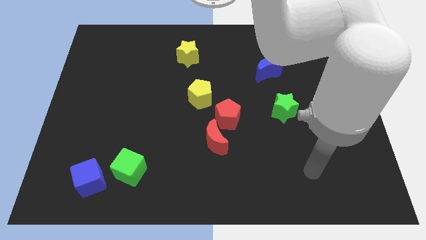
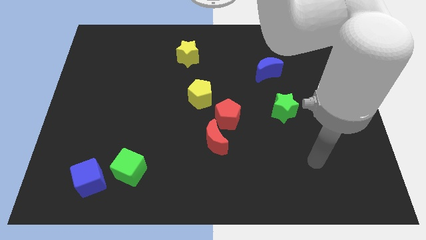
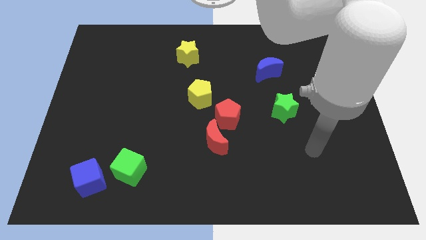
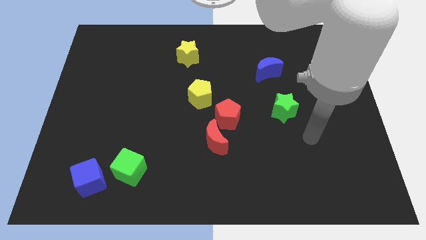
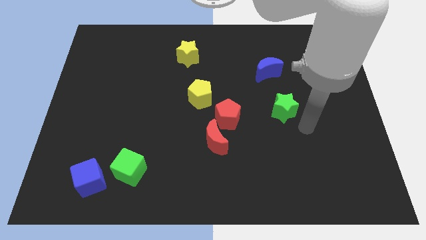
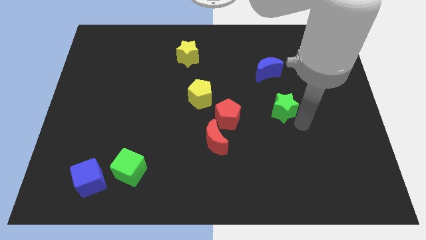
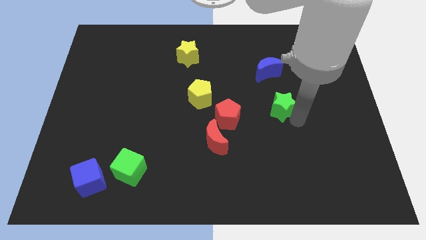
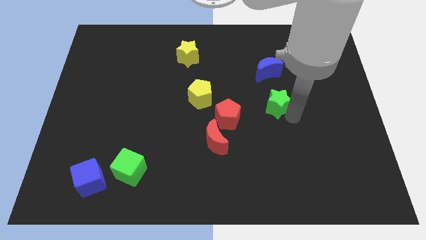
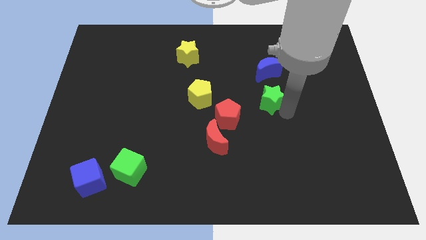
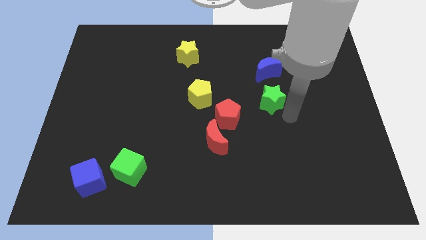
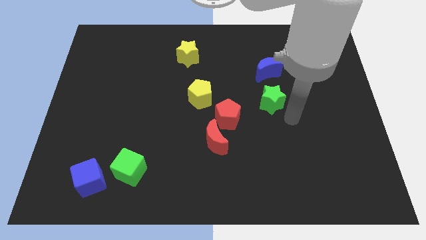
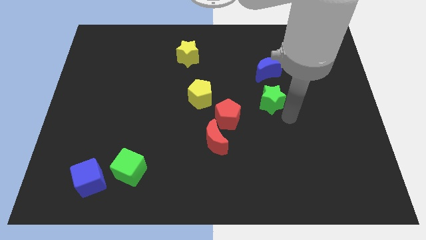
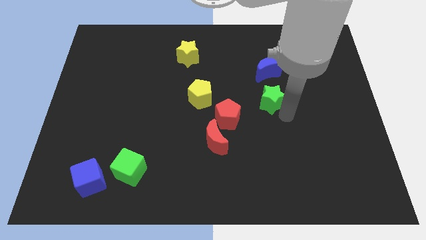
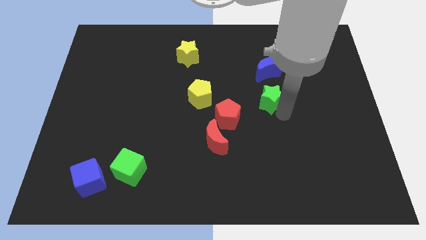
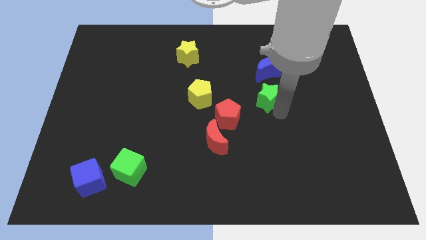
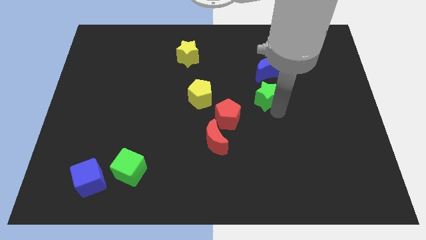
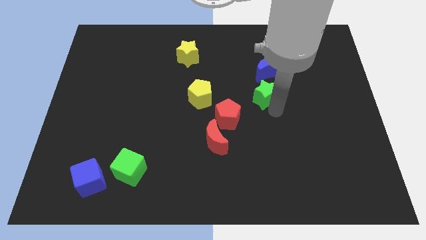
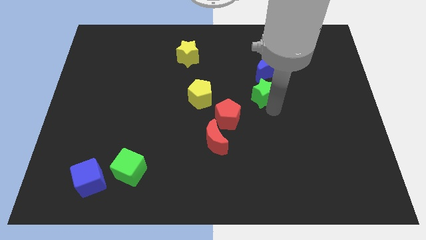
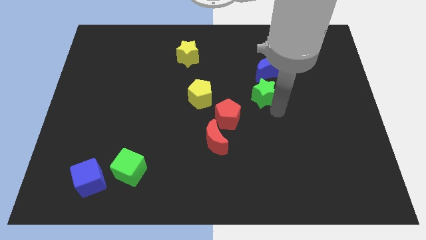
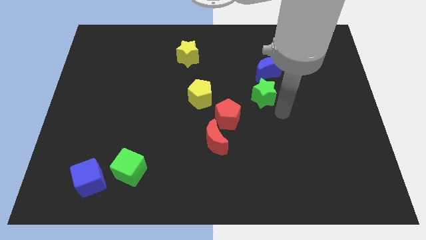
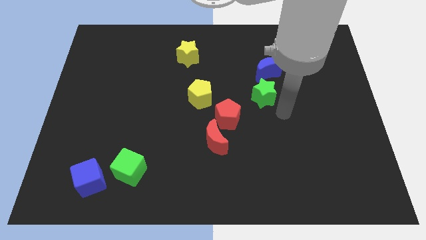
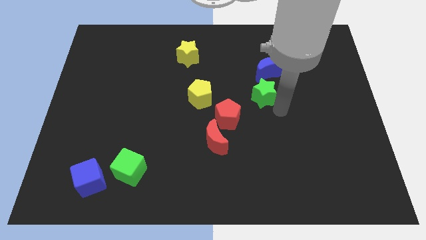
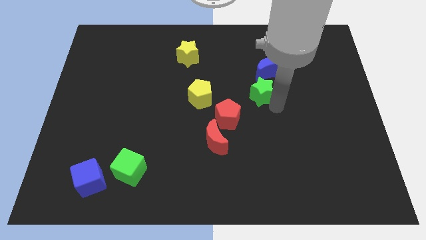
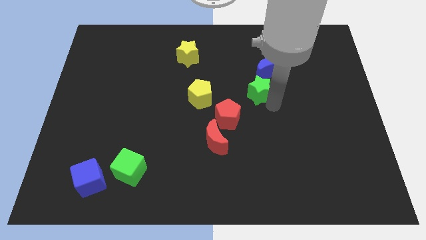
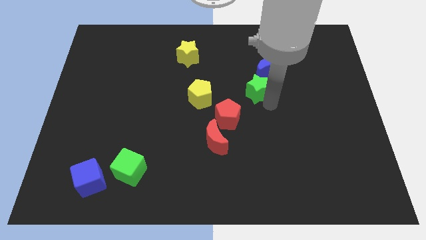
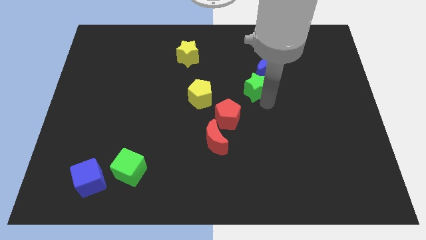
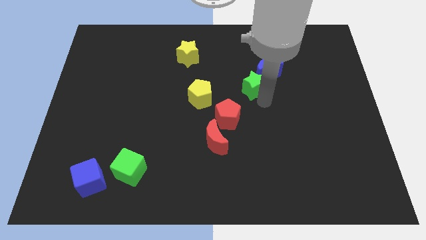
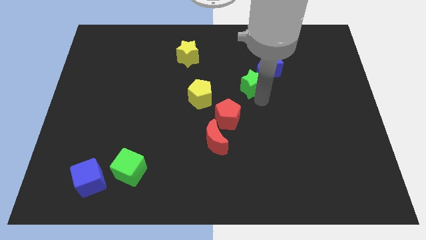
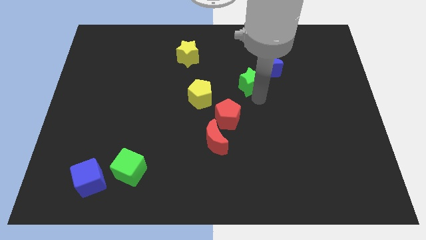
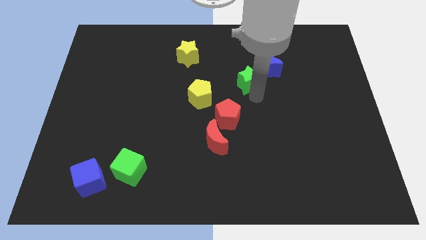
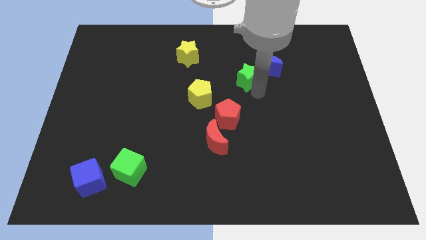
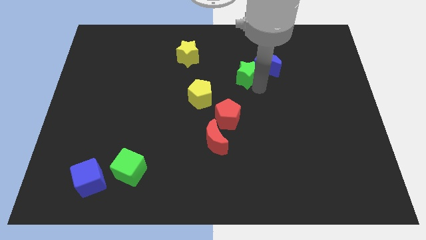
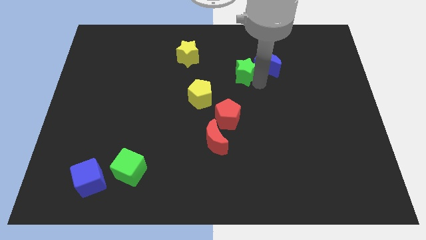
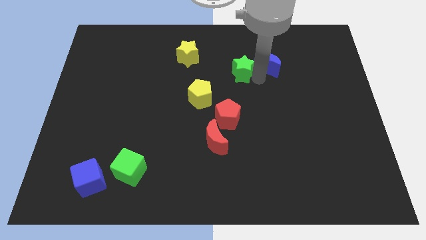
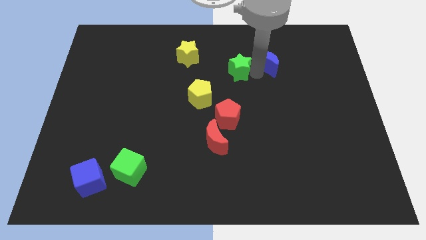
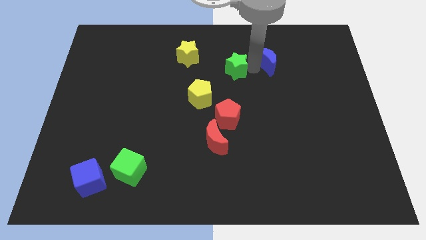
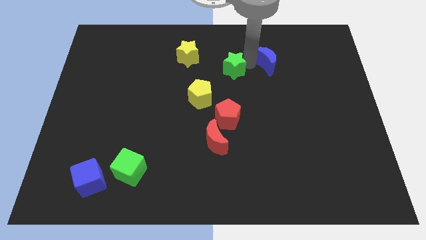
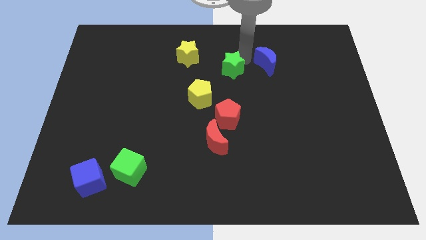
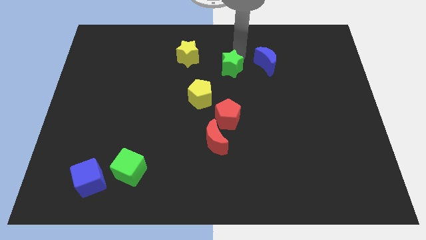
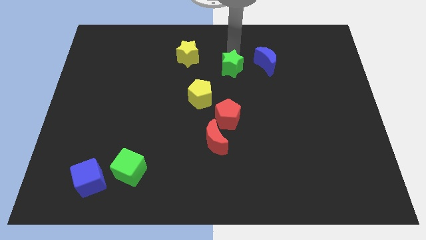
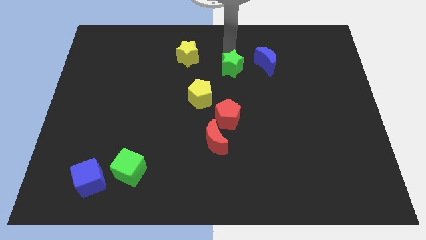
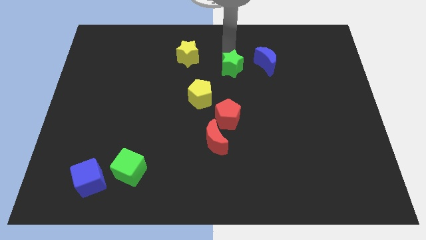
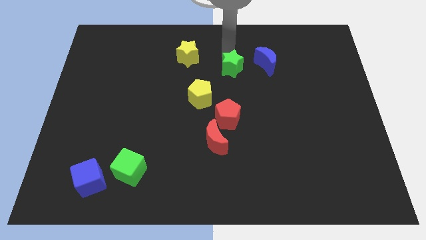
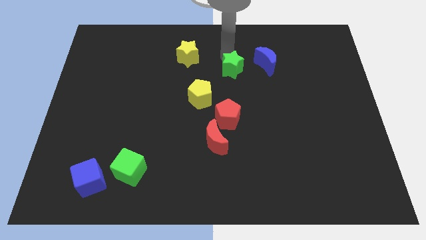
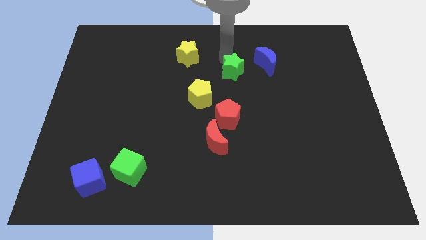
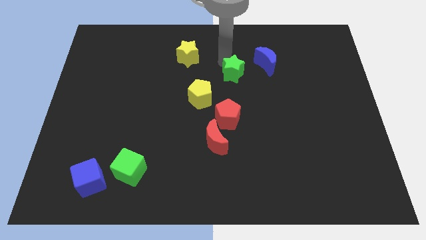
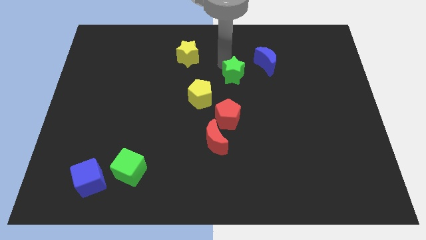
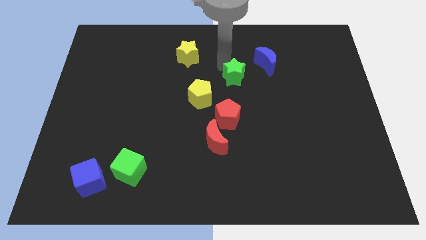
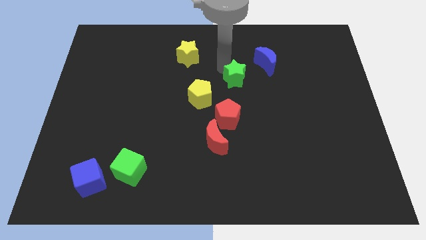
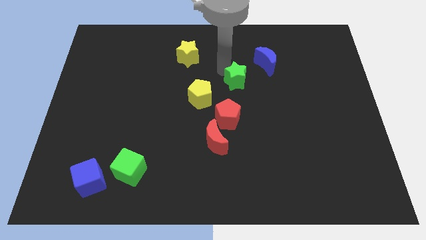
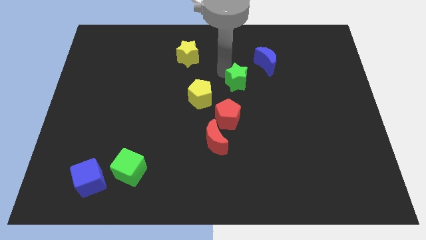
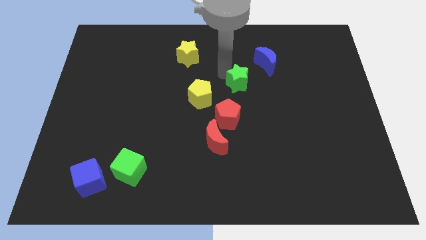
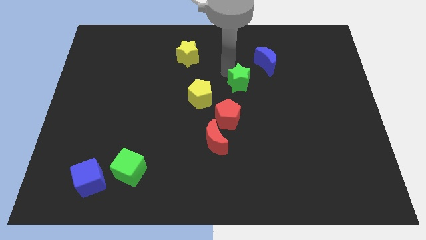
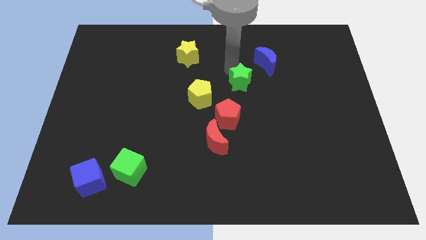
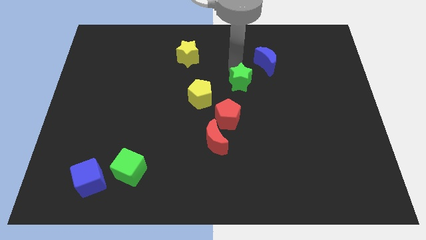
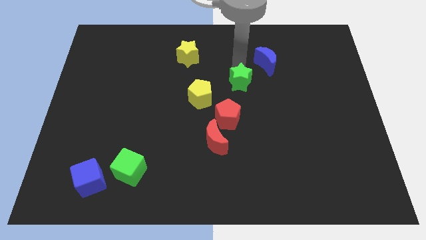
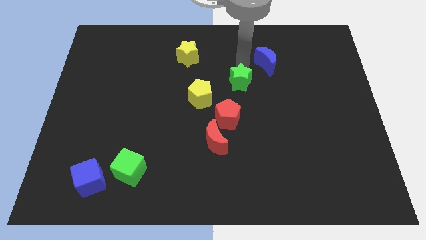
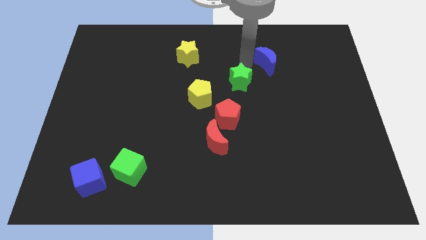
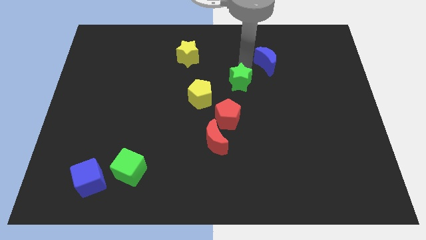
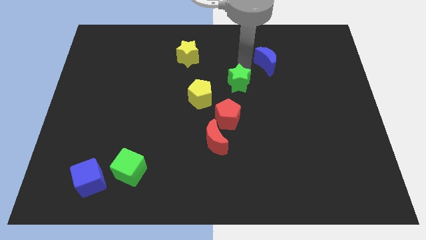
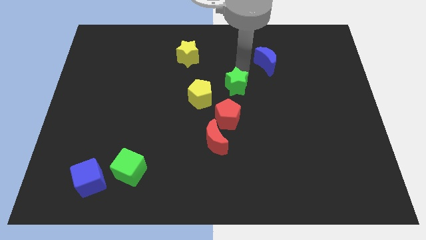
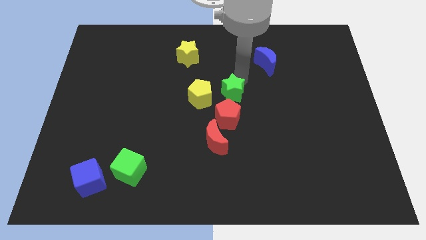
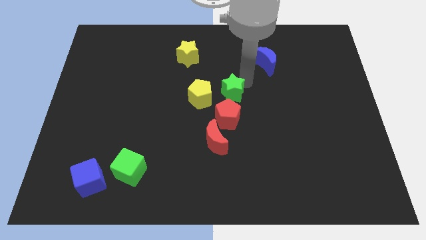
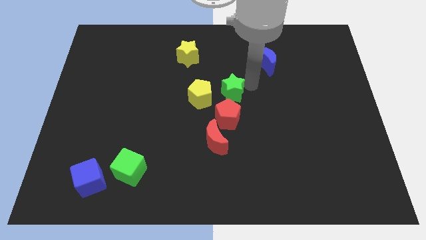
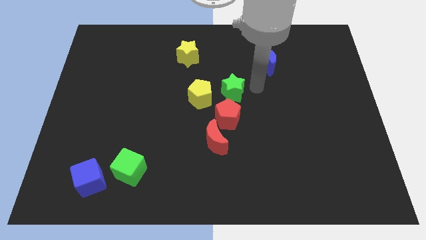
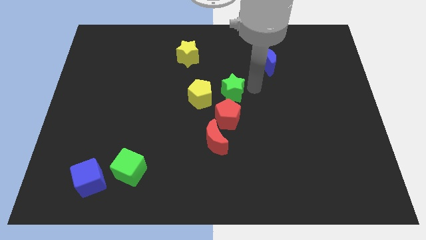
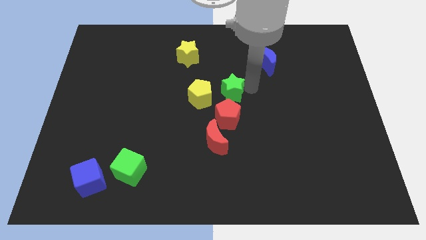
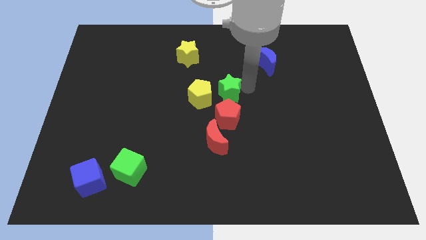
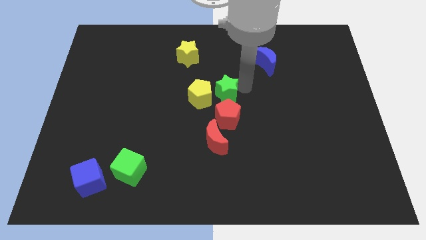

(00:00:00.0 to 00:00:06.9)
push the green star towards the yellow pentagon
